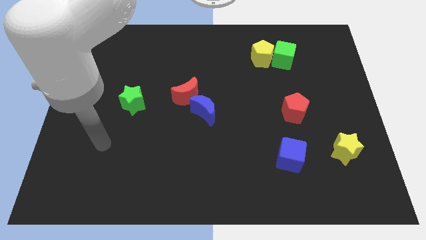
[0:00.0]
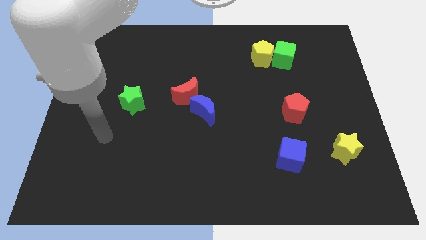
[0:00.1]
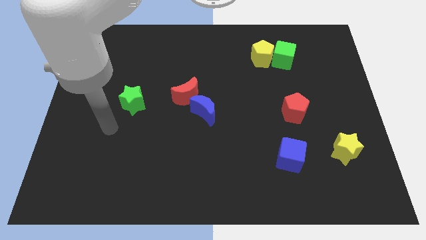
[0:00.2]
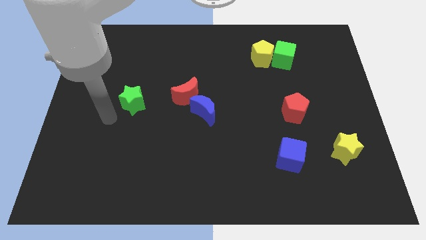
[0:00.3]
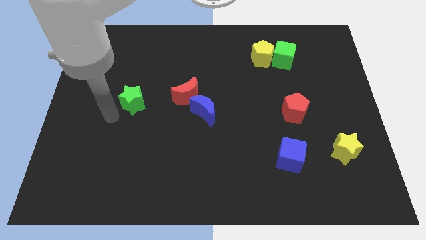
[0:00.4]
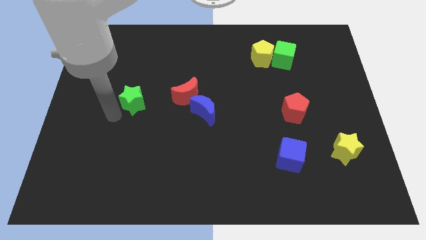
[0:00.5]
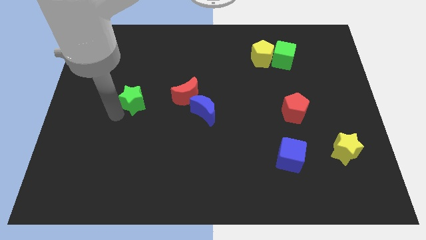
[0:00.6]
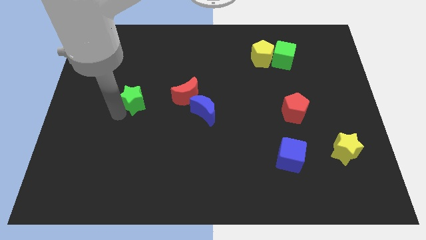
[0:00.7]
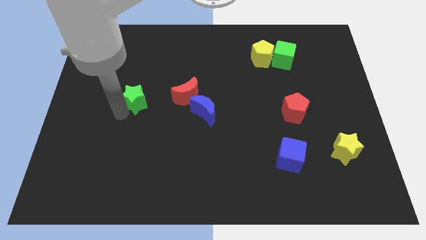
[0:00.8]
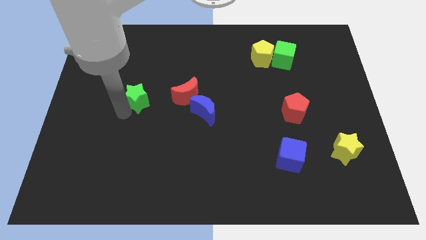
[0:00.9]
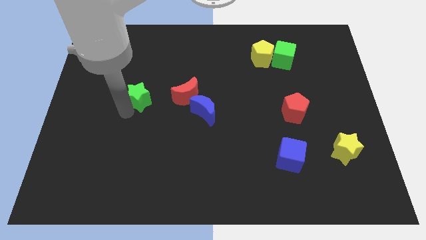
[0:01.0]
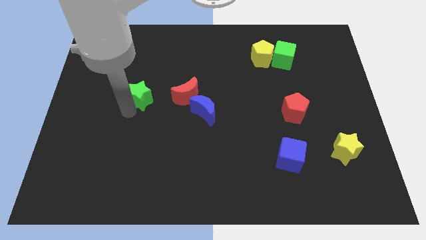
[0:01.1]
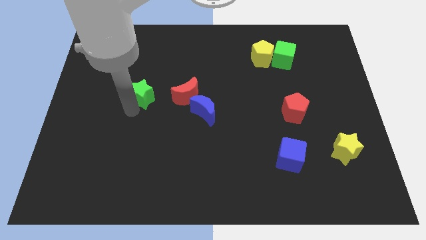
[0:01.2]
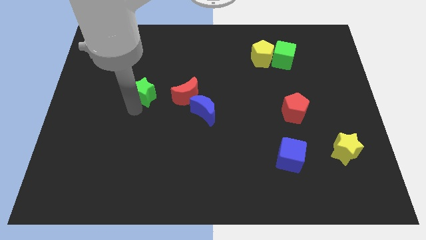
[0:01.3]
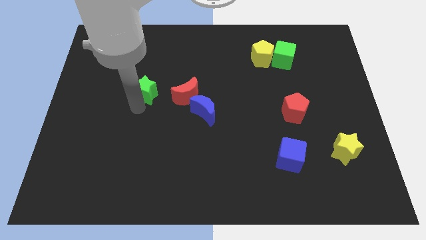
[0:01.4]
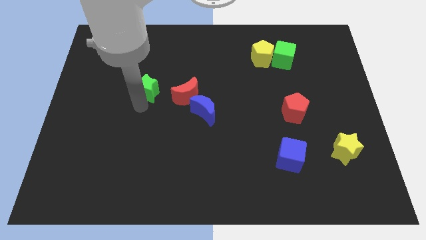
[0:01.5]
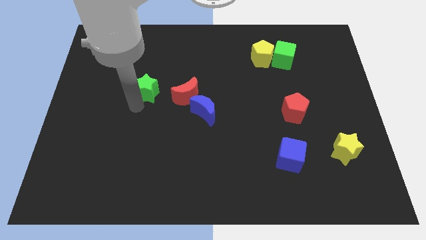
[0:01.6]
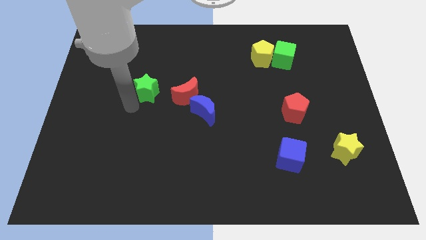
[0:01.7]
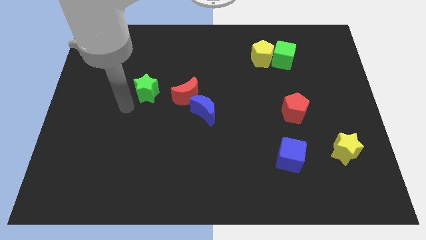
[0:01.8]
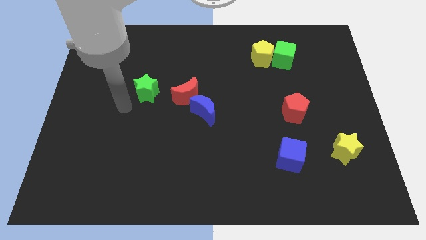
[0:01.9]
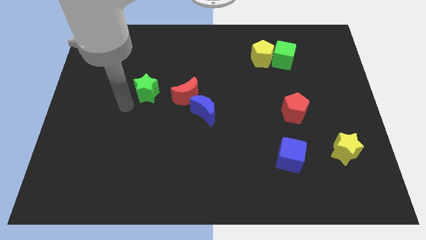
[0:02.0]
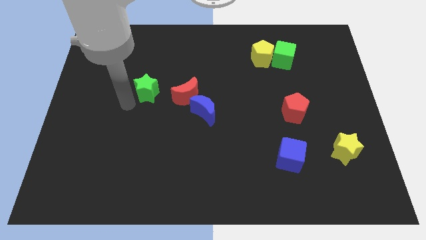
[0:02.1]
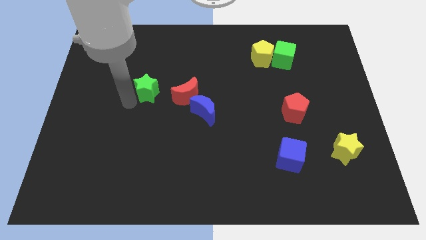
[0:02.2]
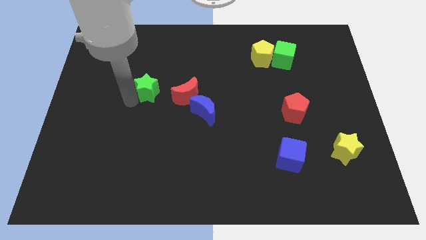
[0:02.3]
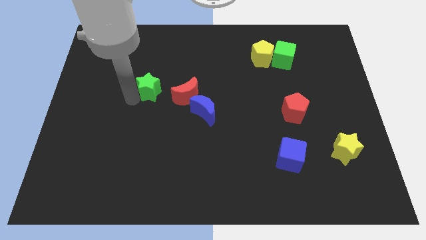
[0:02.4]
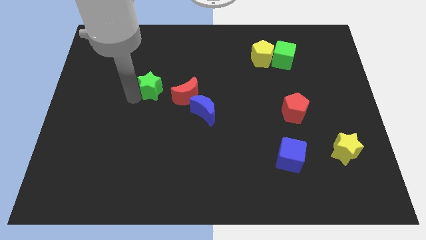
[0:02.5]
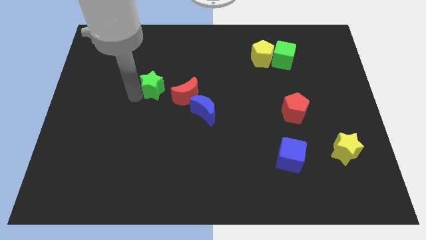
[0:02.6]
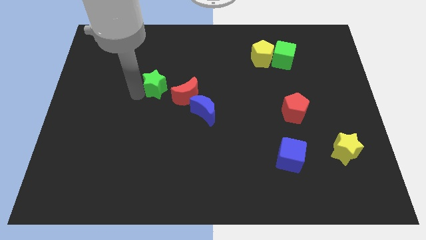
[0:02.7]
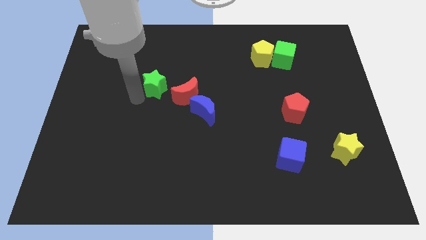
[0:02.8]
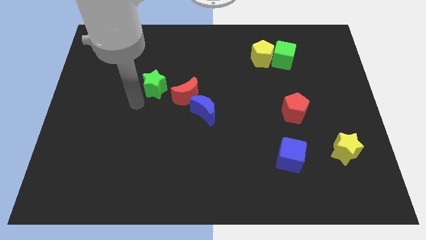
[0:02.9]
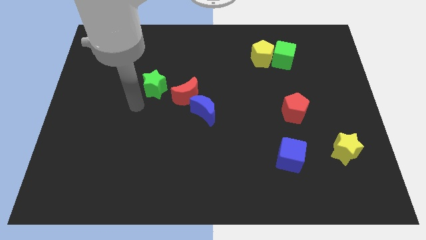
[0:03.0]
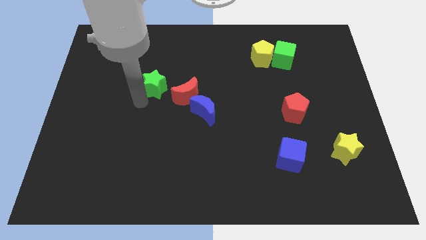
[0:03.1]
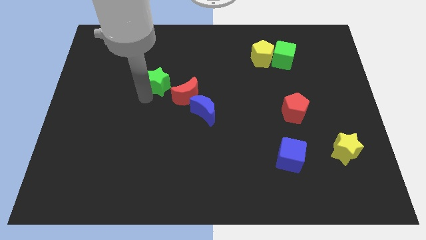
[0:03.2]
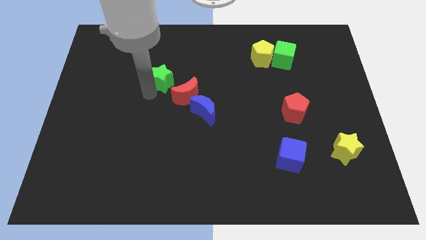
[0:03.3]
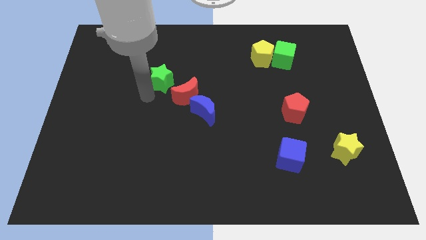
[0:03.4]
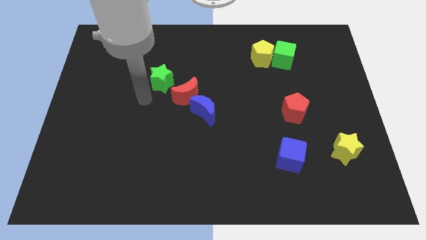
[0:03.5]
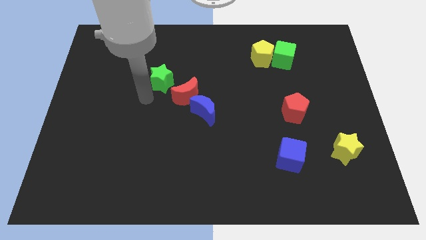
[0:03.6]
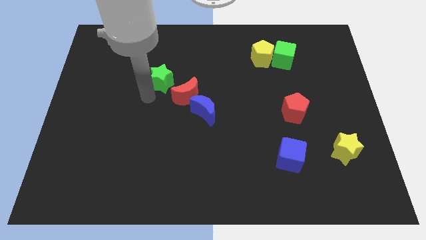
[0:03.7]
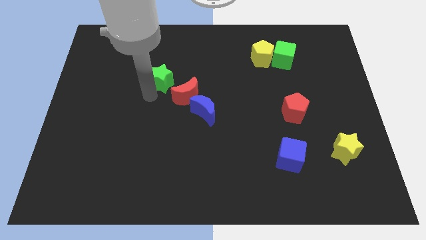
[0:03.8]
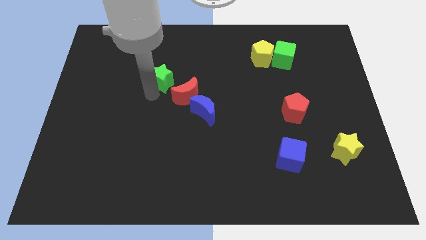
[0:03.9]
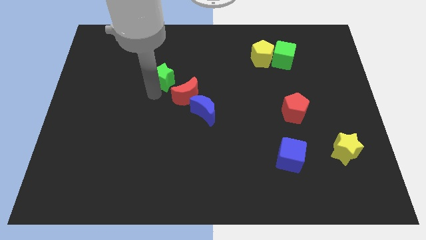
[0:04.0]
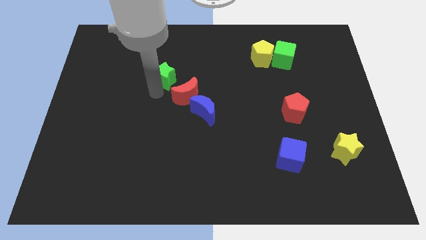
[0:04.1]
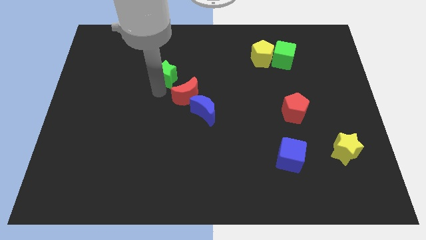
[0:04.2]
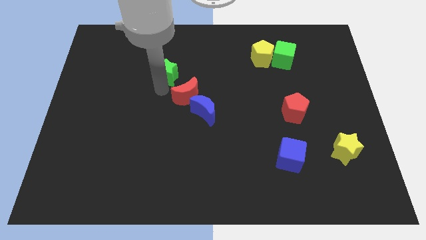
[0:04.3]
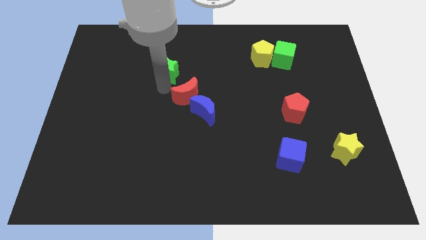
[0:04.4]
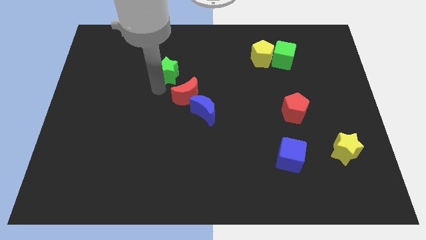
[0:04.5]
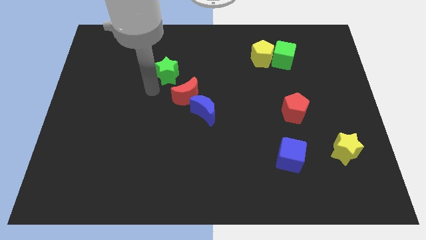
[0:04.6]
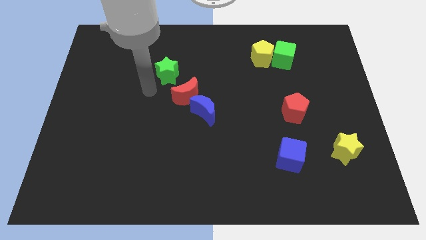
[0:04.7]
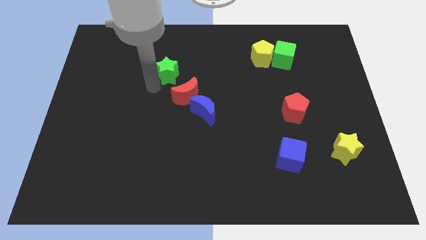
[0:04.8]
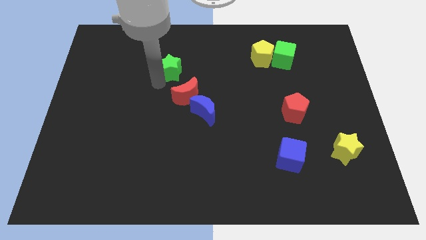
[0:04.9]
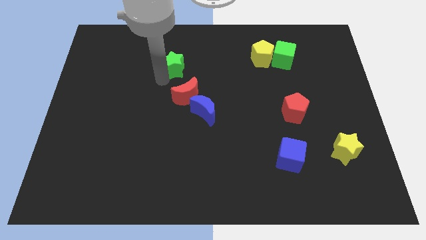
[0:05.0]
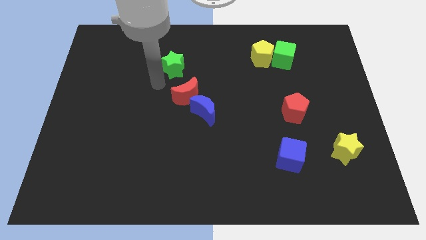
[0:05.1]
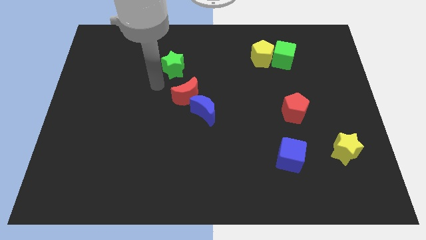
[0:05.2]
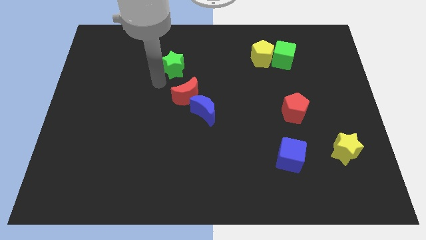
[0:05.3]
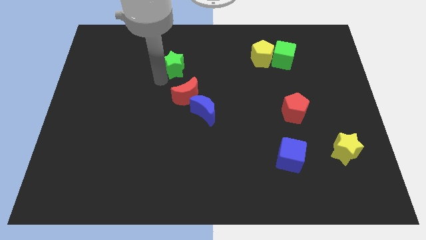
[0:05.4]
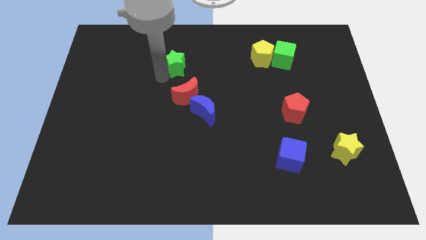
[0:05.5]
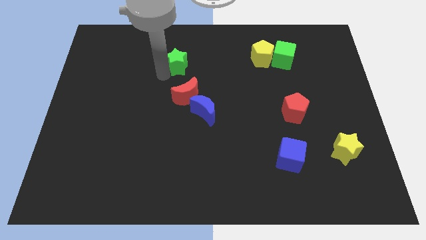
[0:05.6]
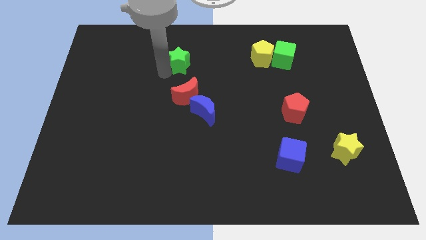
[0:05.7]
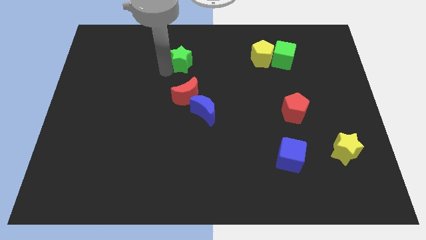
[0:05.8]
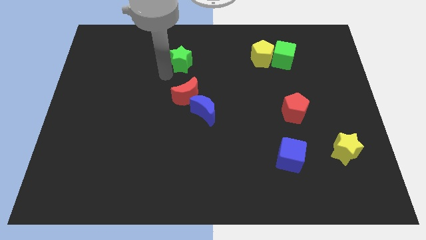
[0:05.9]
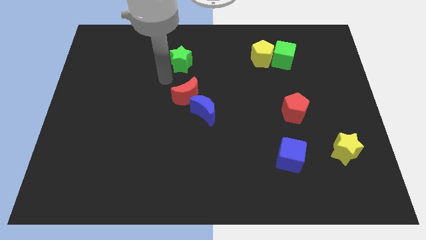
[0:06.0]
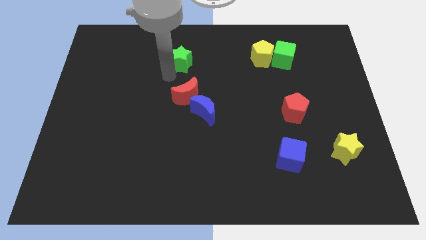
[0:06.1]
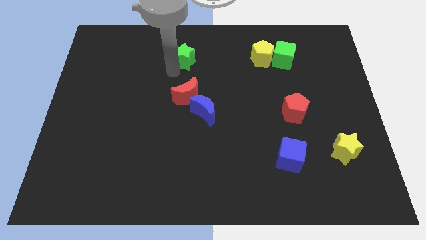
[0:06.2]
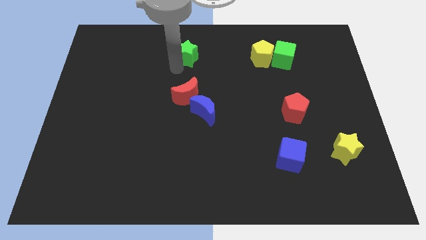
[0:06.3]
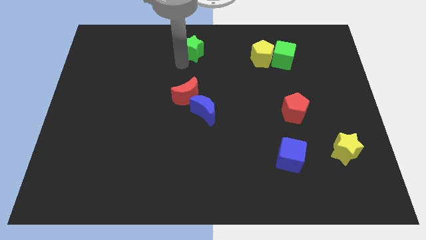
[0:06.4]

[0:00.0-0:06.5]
push the green star to the towards your base
